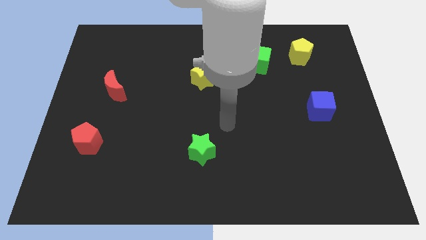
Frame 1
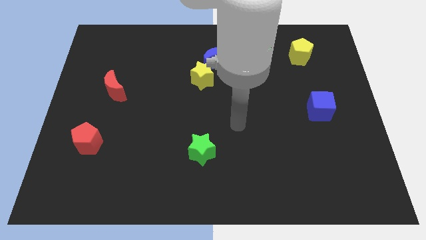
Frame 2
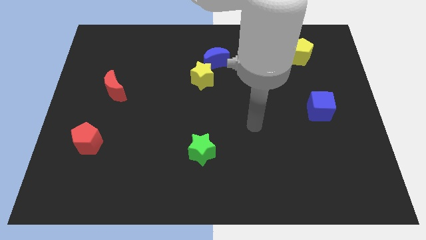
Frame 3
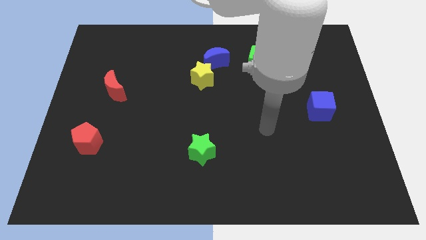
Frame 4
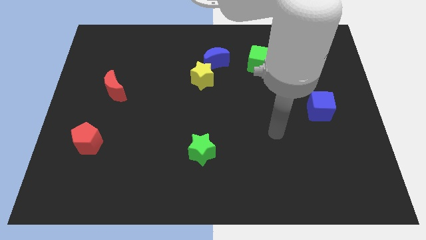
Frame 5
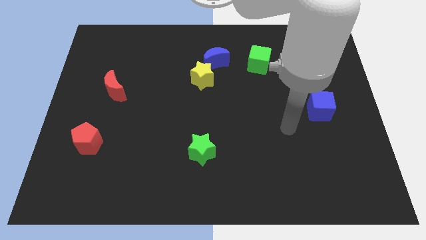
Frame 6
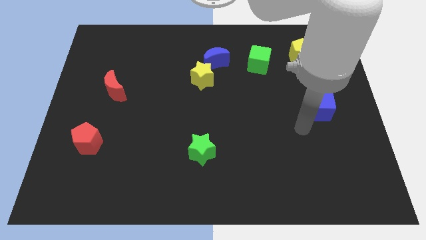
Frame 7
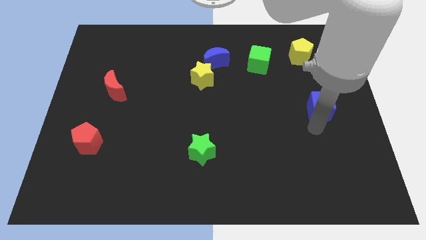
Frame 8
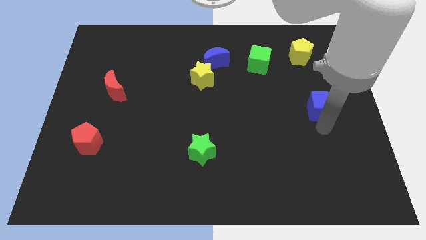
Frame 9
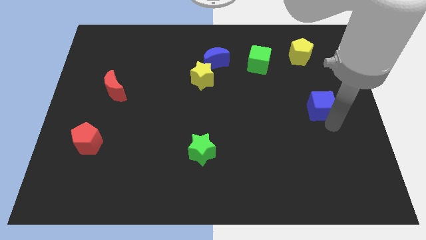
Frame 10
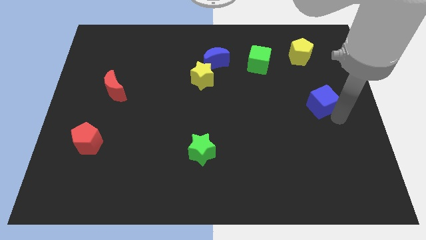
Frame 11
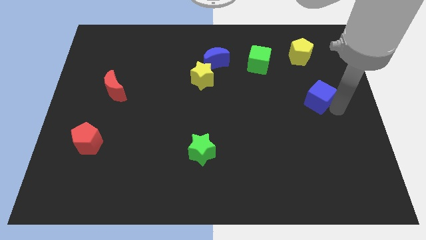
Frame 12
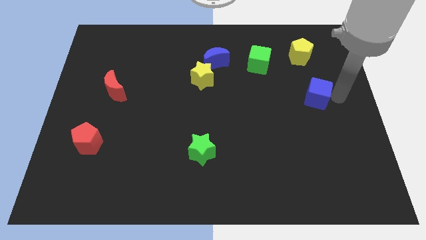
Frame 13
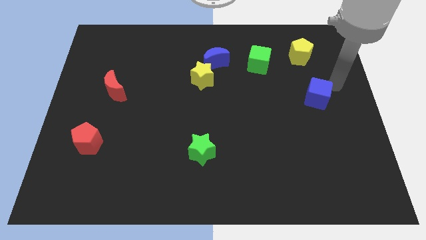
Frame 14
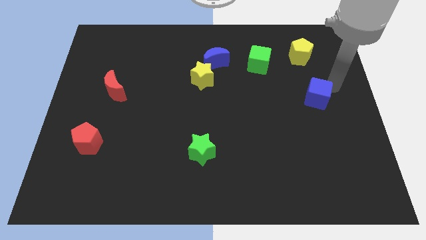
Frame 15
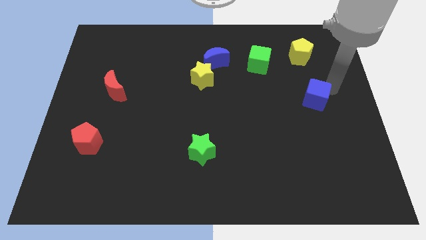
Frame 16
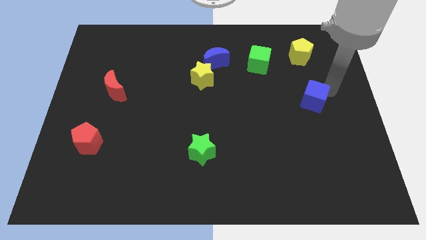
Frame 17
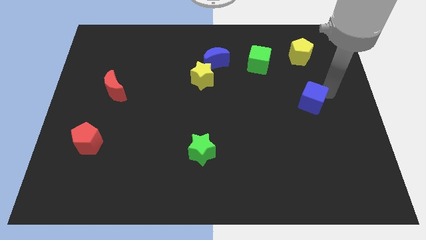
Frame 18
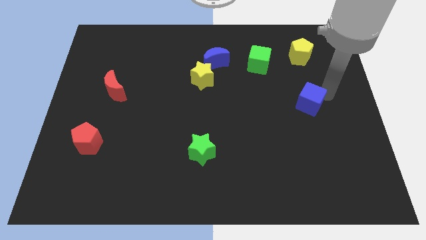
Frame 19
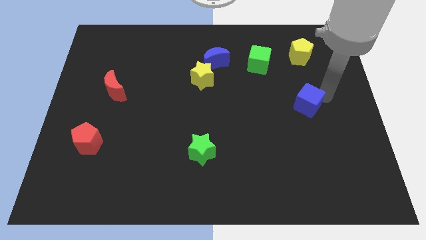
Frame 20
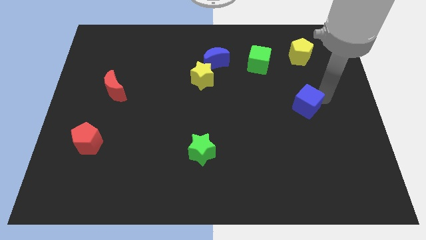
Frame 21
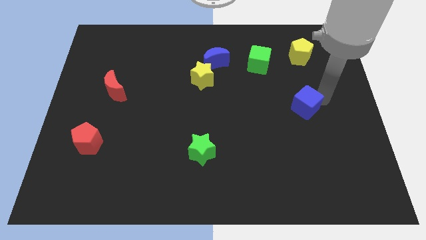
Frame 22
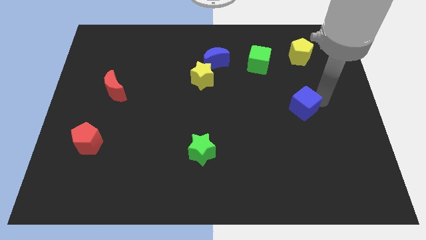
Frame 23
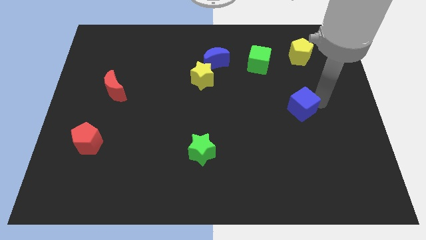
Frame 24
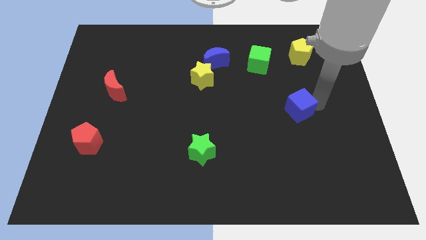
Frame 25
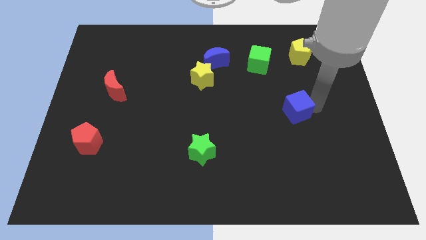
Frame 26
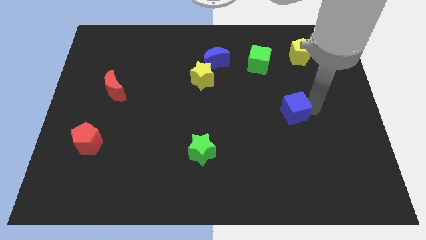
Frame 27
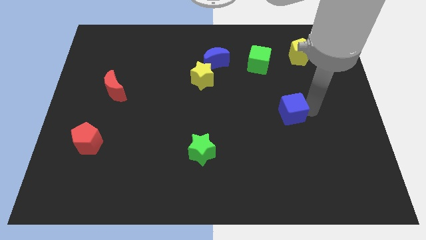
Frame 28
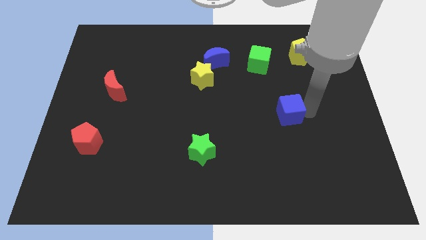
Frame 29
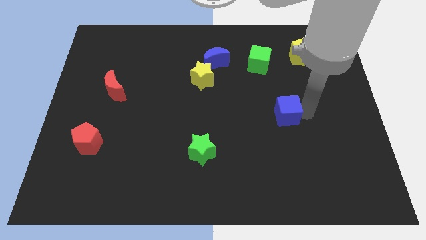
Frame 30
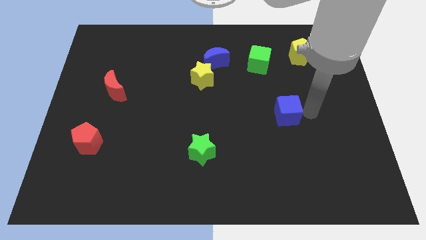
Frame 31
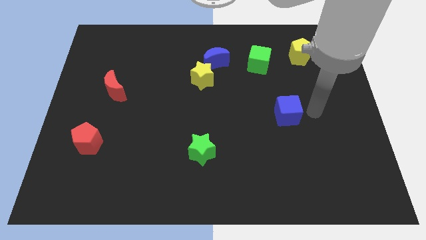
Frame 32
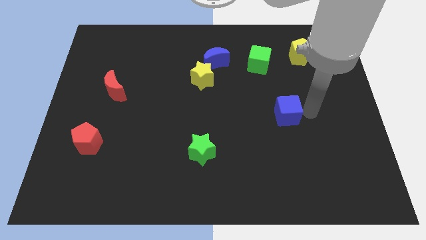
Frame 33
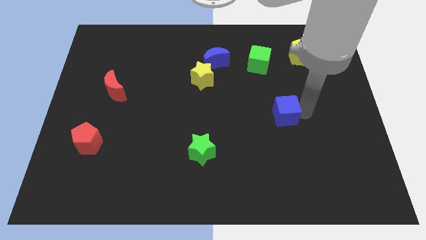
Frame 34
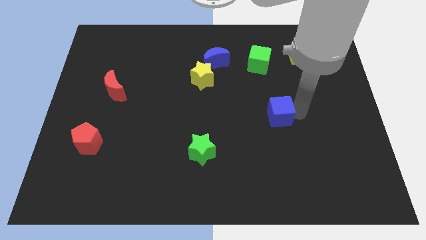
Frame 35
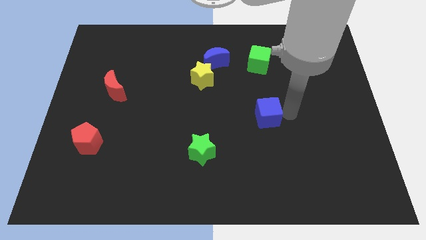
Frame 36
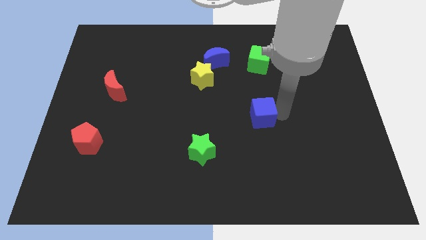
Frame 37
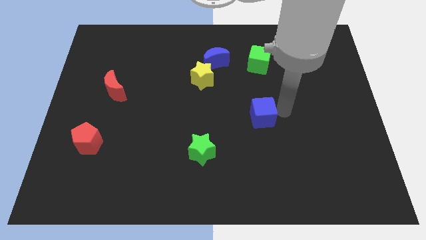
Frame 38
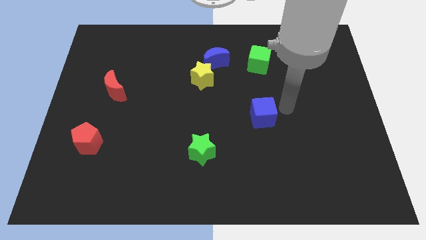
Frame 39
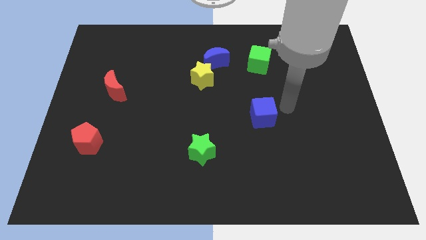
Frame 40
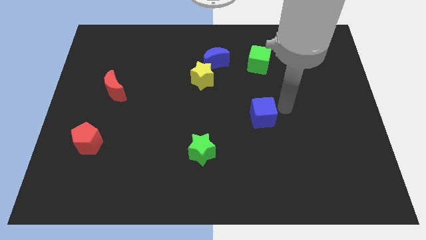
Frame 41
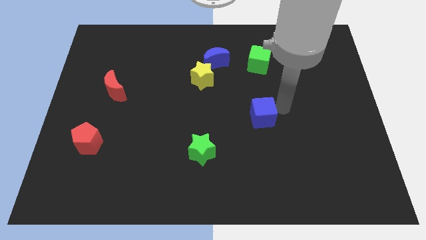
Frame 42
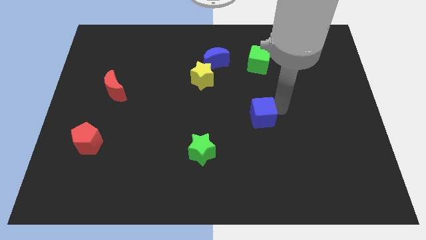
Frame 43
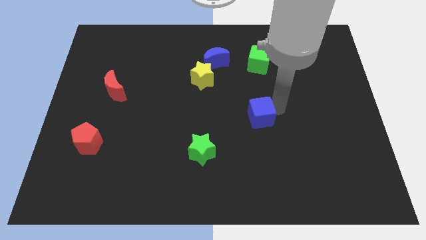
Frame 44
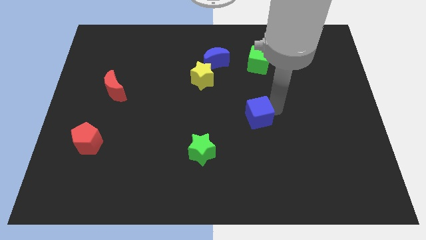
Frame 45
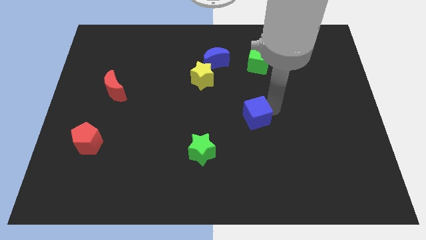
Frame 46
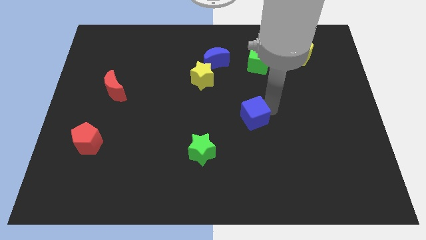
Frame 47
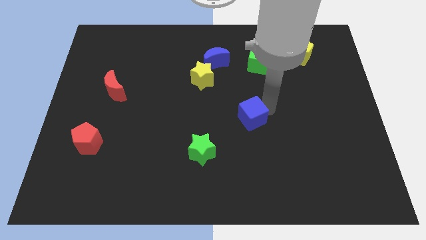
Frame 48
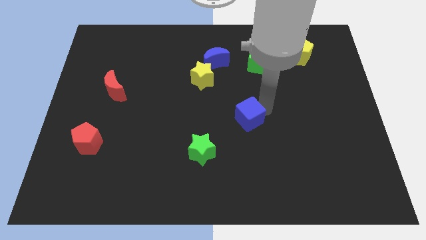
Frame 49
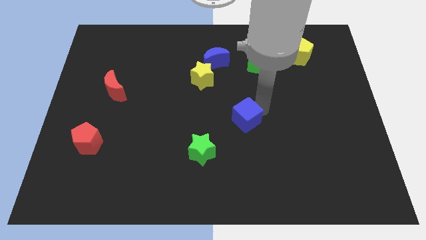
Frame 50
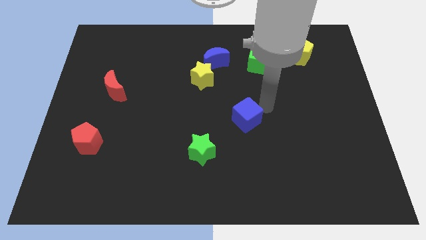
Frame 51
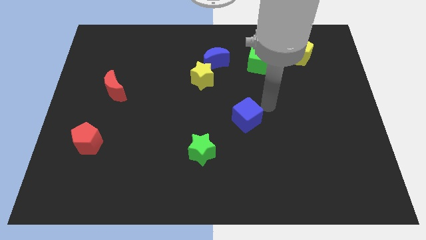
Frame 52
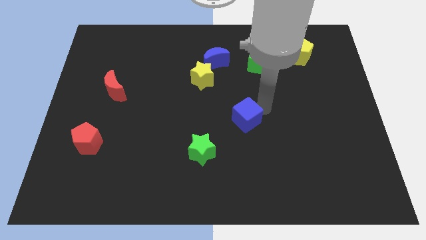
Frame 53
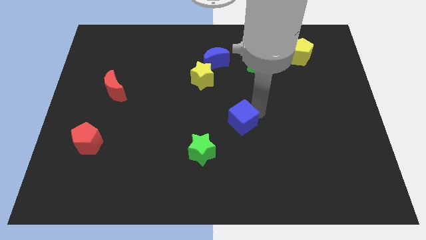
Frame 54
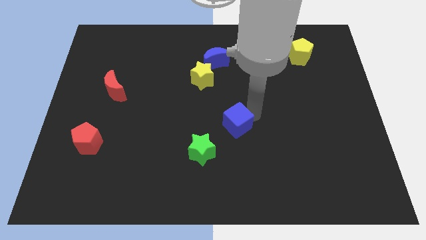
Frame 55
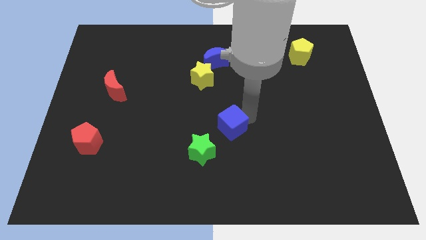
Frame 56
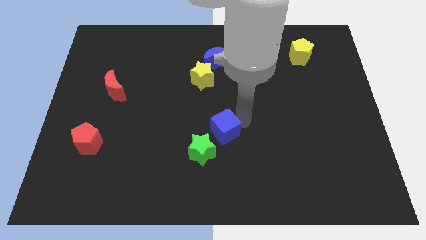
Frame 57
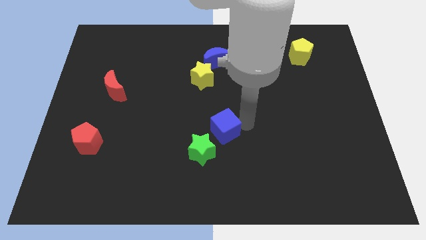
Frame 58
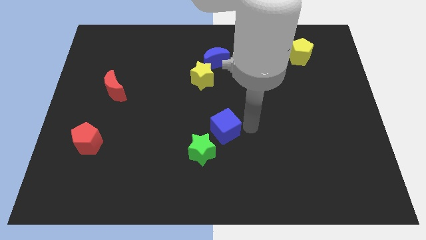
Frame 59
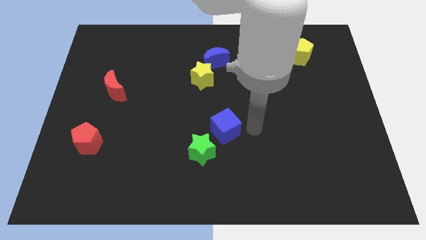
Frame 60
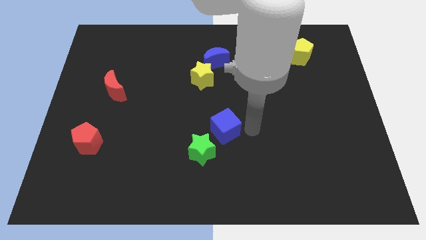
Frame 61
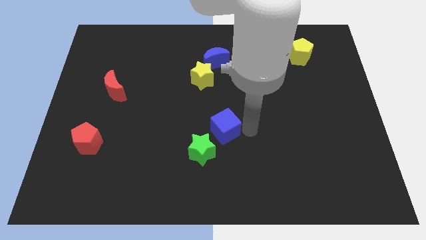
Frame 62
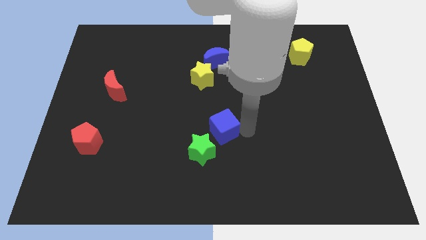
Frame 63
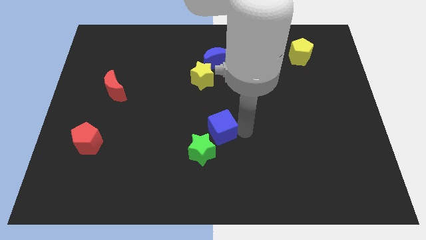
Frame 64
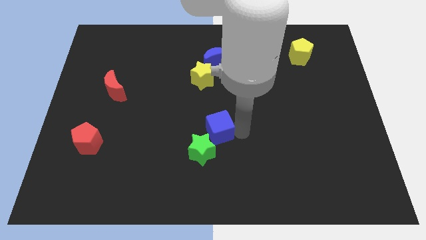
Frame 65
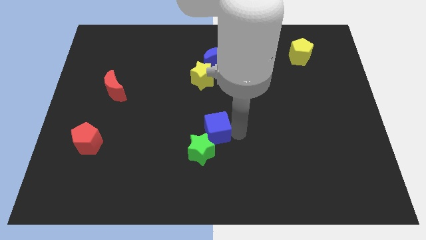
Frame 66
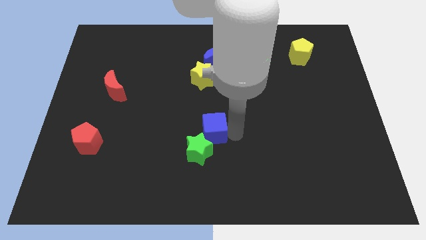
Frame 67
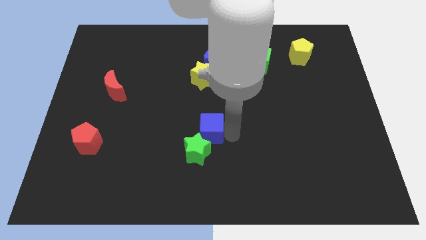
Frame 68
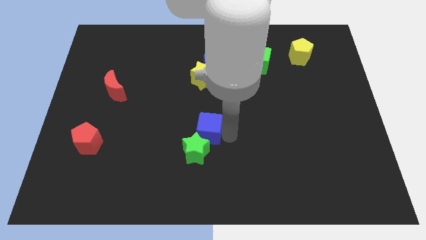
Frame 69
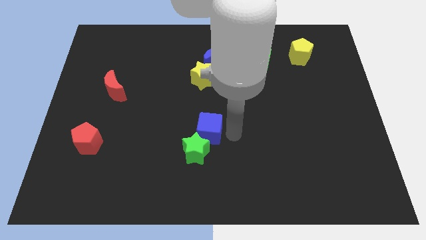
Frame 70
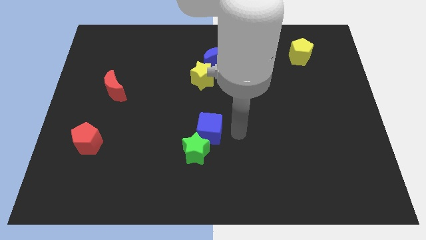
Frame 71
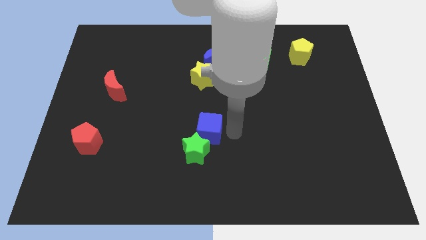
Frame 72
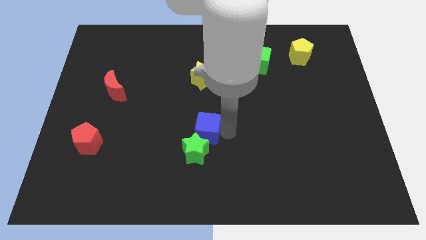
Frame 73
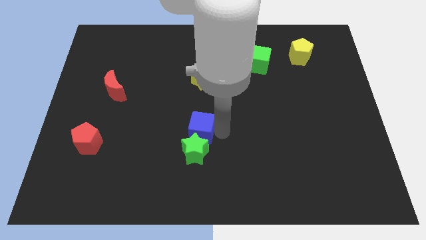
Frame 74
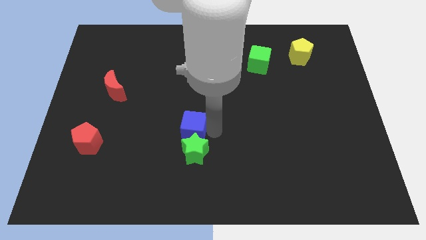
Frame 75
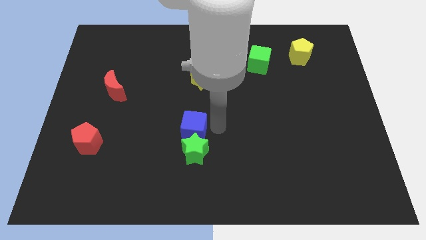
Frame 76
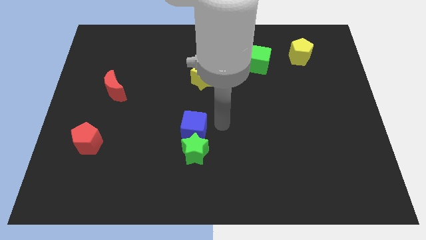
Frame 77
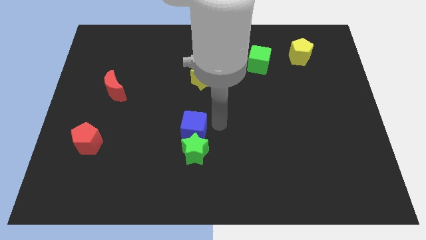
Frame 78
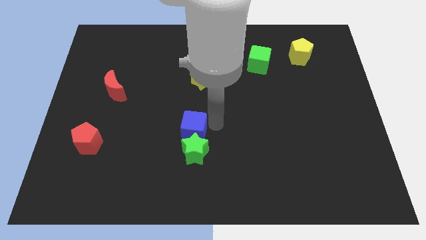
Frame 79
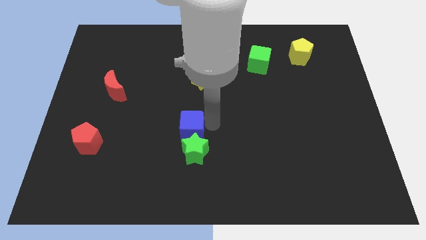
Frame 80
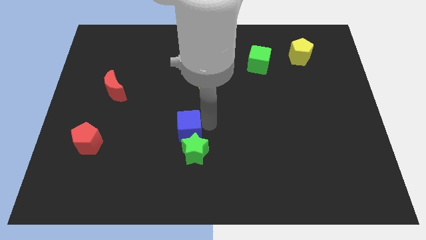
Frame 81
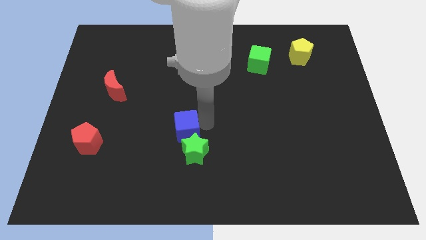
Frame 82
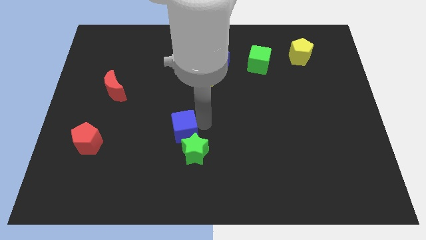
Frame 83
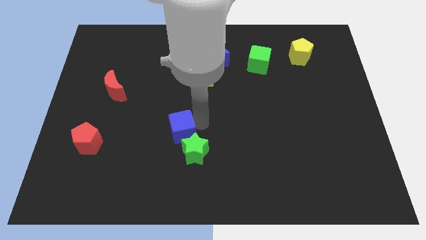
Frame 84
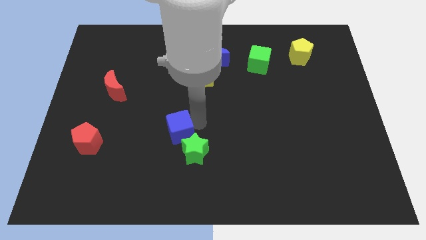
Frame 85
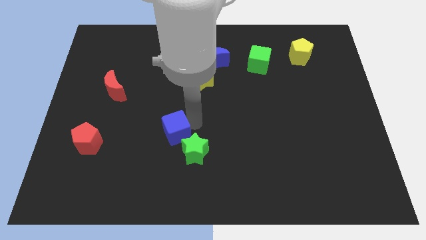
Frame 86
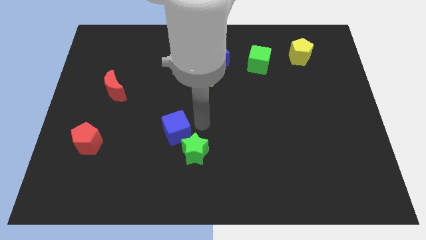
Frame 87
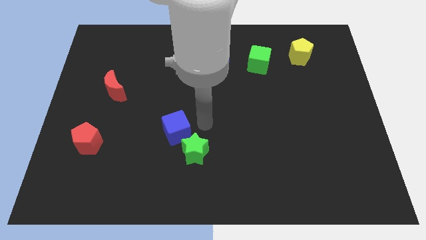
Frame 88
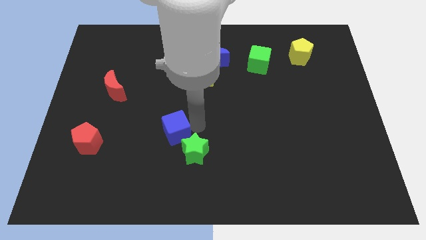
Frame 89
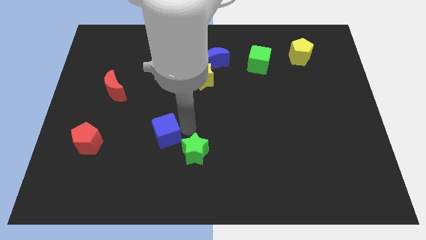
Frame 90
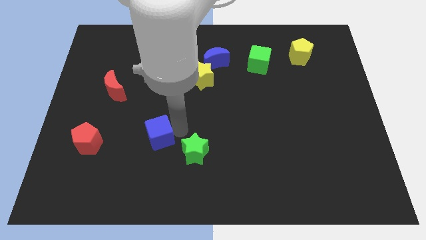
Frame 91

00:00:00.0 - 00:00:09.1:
put the blue cube to the right side of the red pentagon
